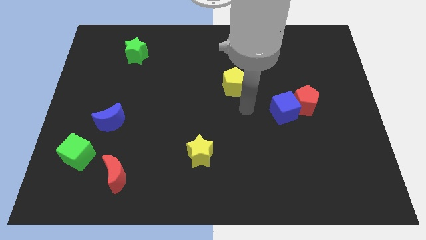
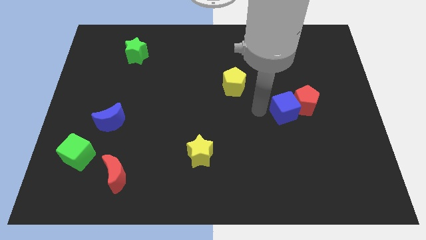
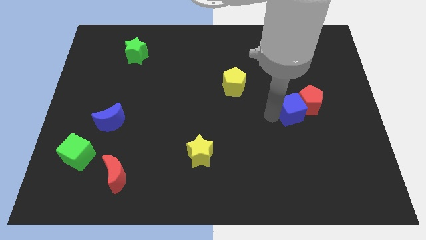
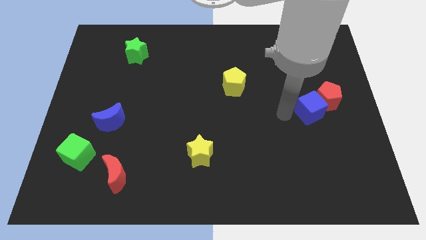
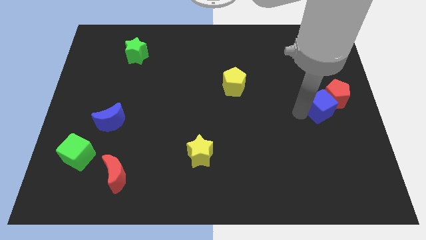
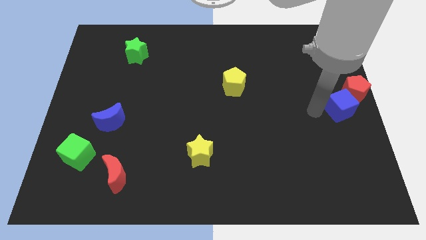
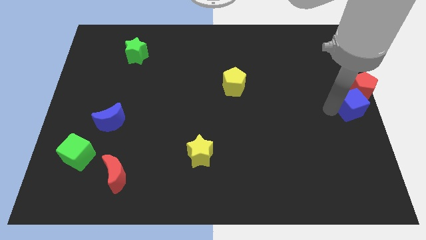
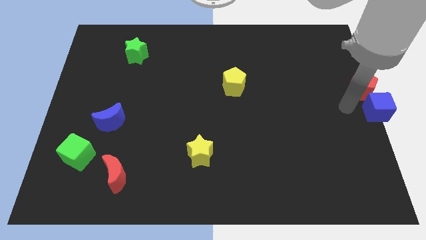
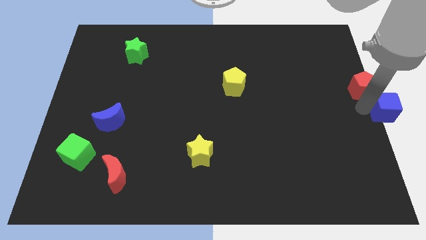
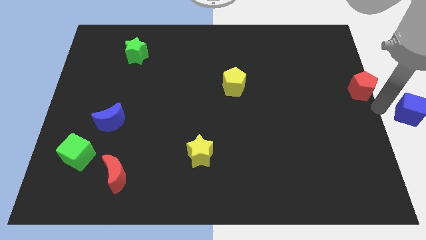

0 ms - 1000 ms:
separate the red pentagon from the blue cube

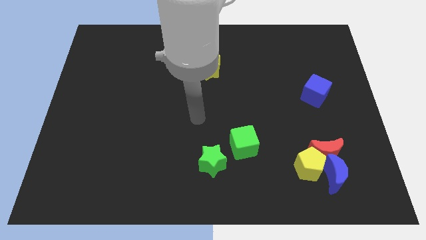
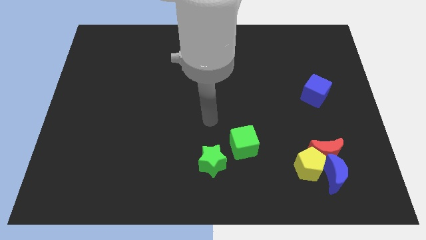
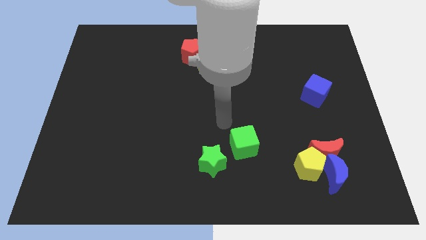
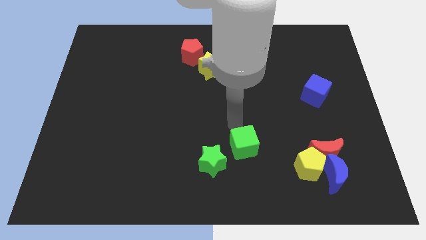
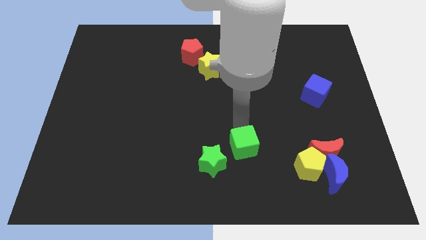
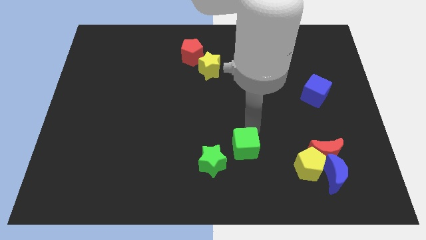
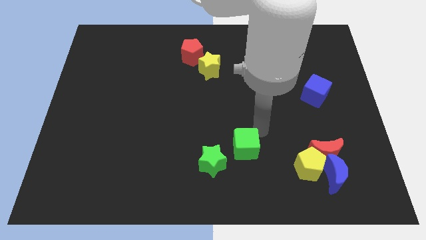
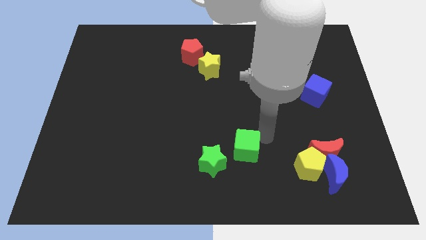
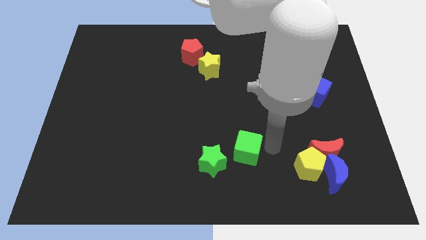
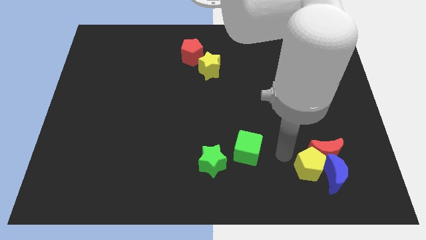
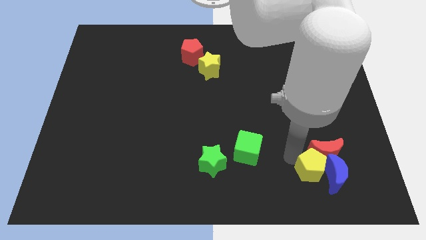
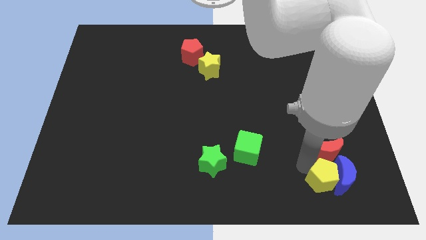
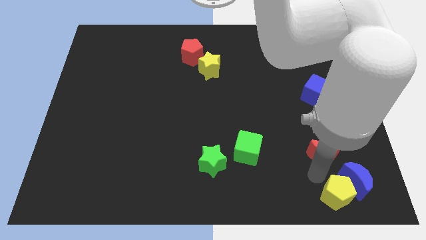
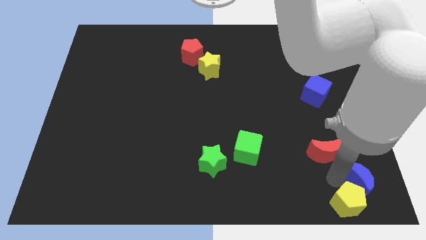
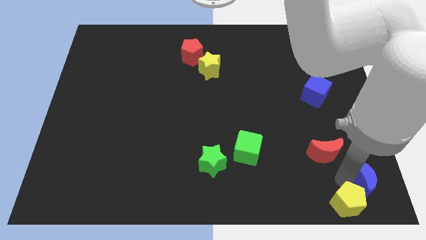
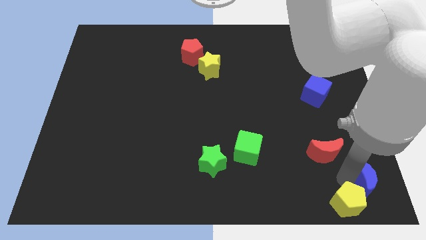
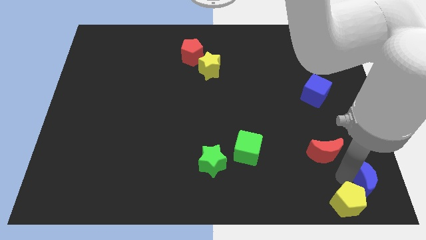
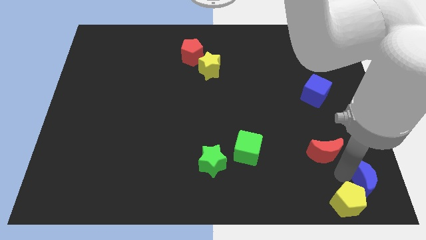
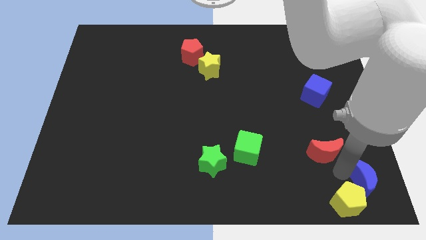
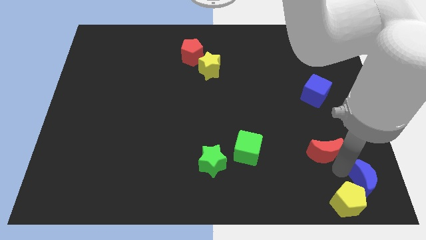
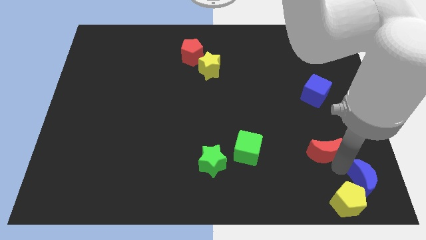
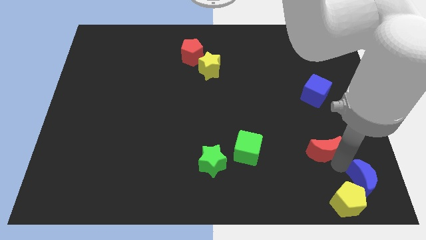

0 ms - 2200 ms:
separate the red moon from the yellow pentagon and blue moon

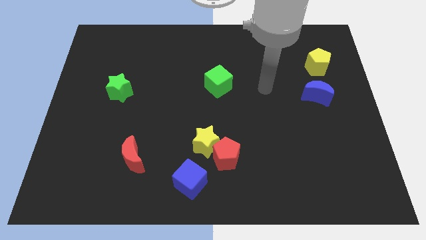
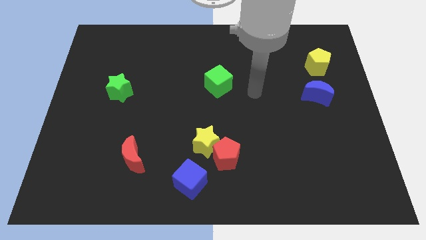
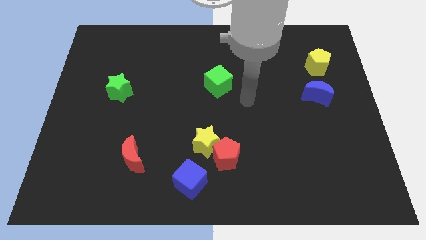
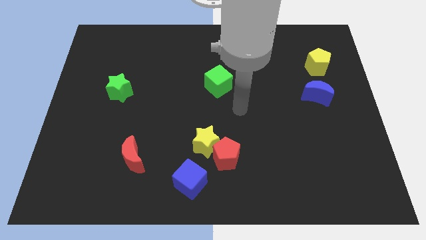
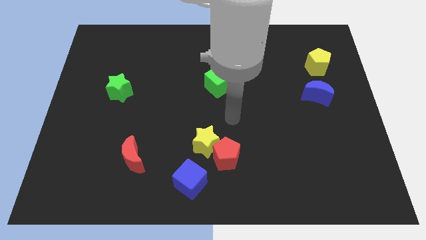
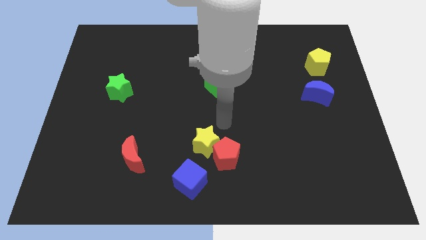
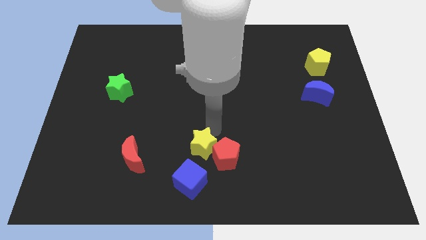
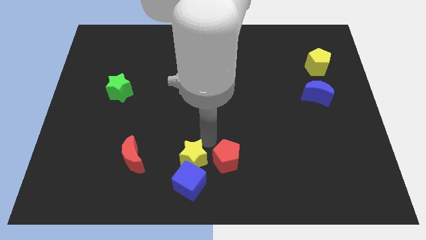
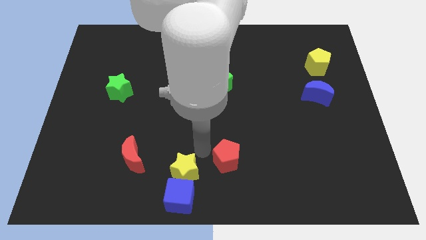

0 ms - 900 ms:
move the red pentagon away from the yellow star and blue cube

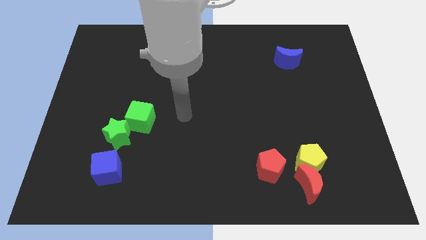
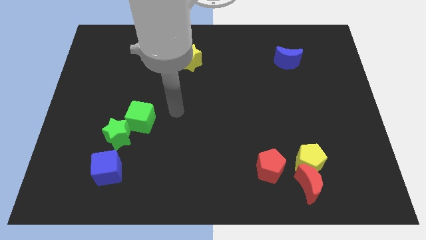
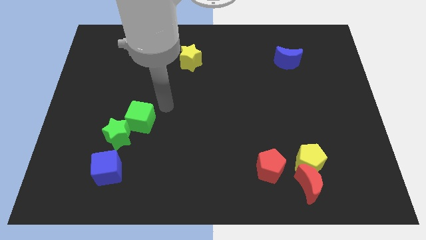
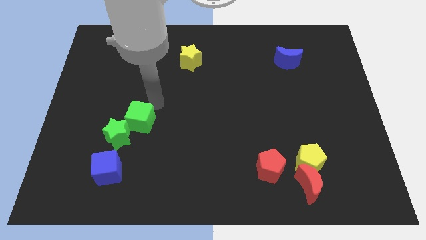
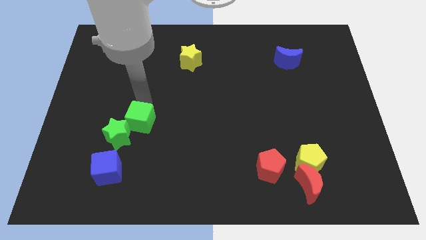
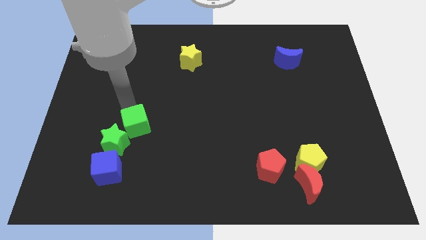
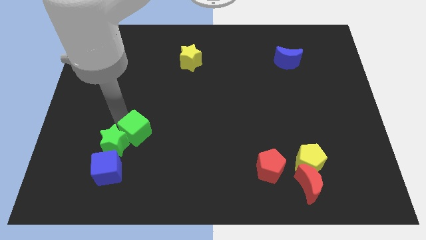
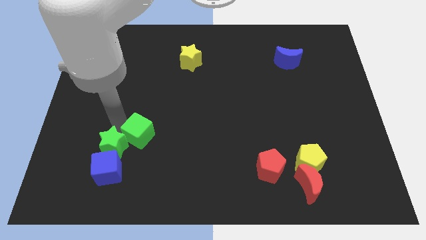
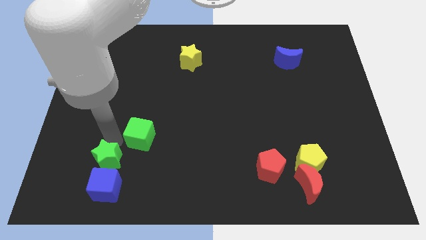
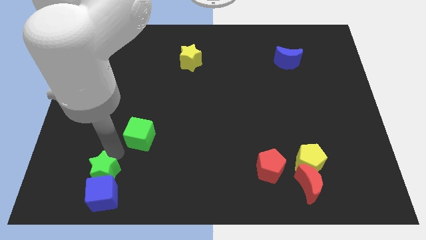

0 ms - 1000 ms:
pull the green cube apart from the green star

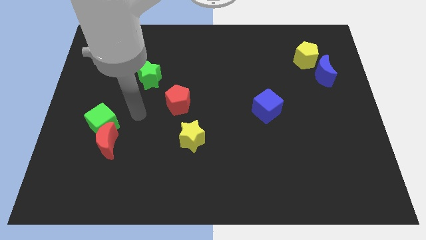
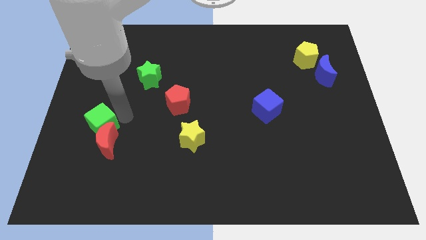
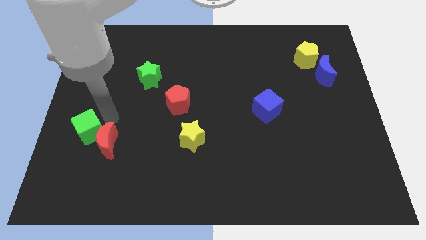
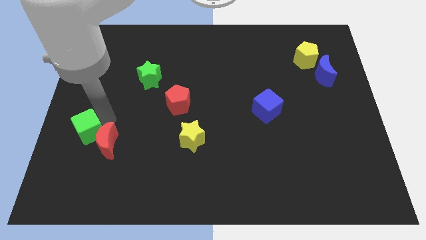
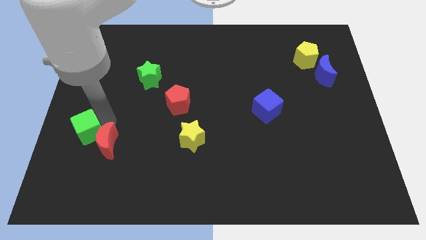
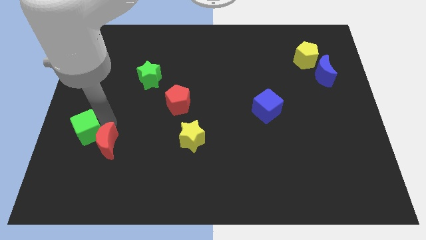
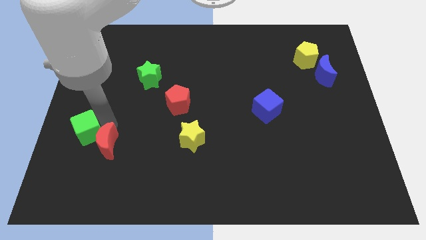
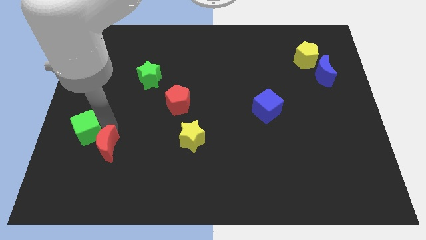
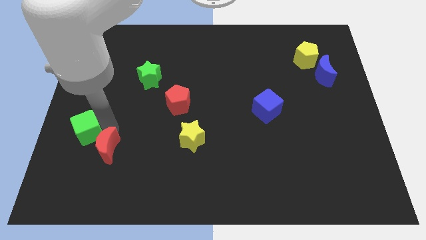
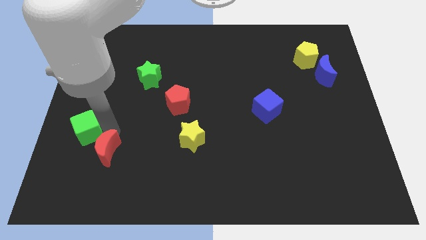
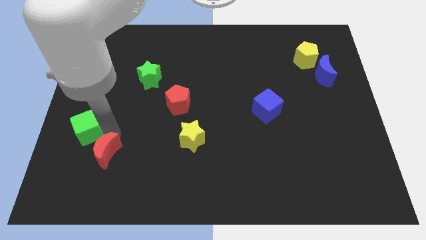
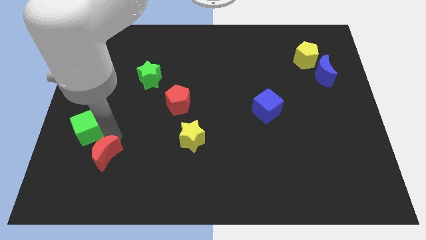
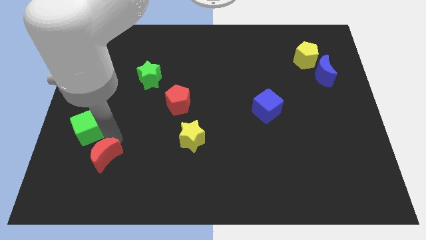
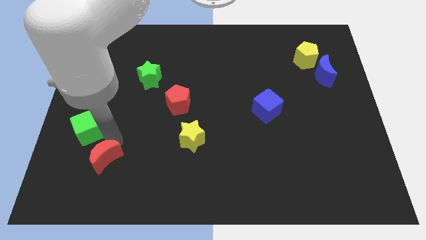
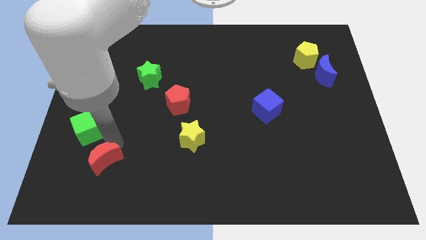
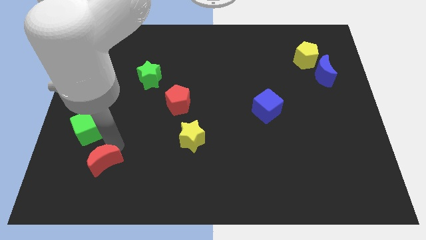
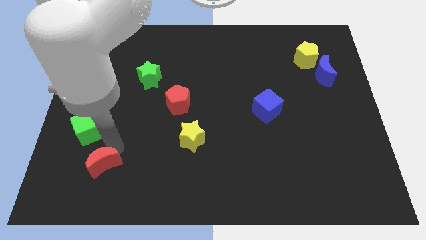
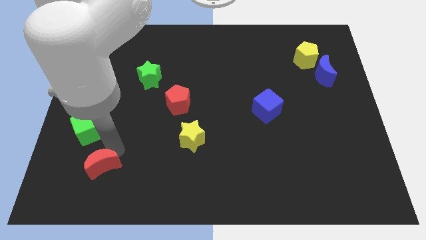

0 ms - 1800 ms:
pull the red moon apart from the green cube

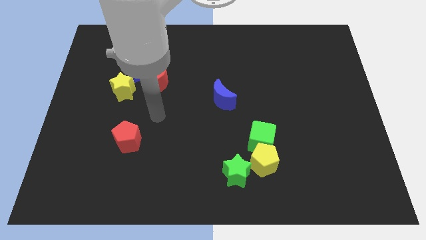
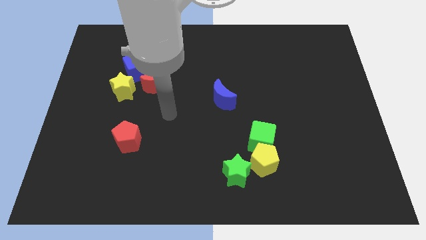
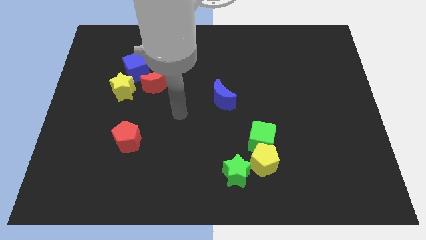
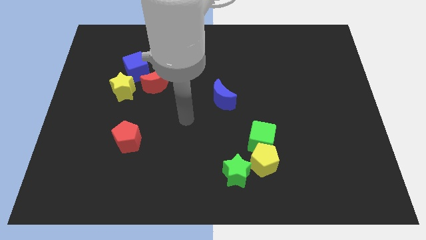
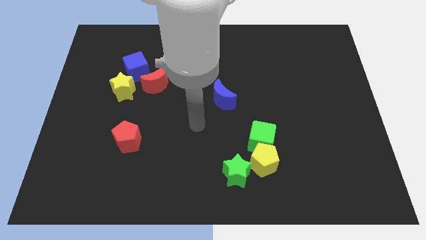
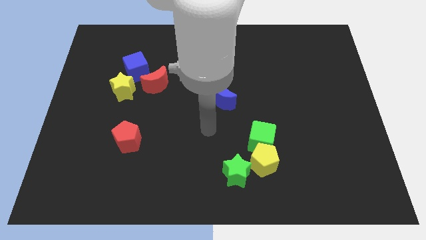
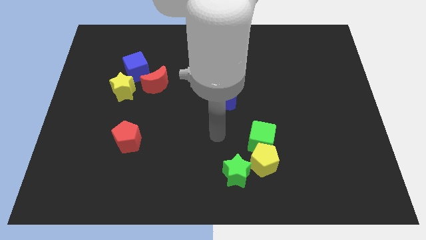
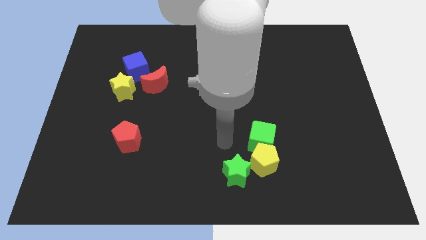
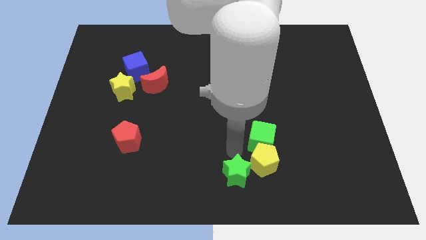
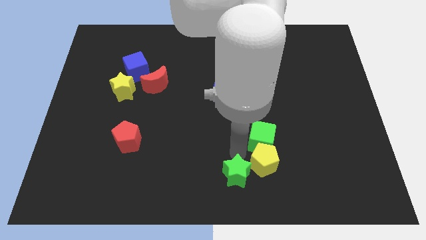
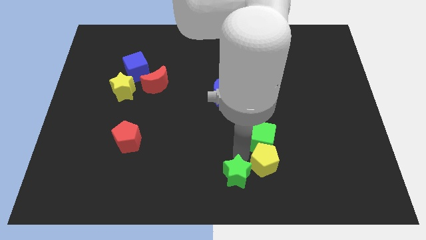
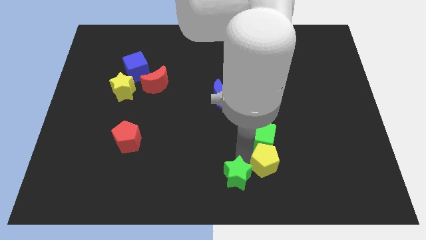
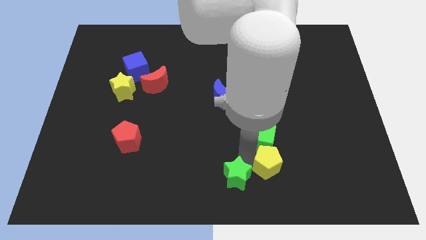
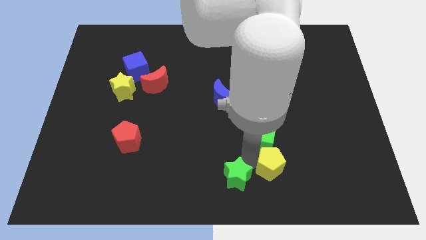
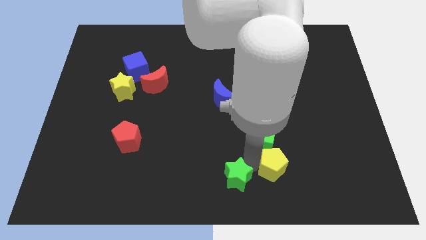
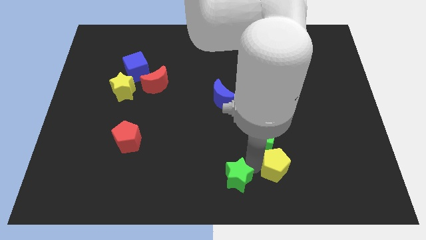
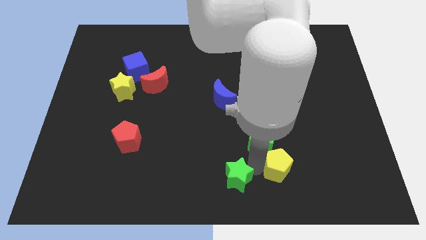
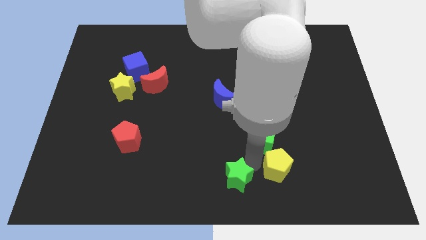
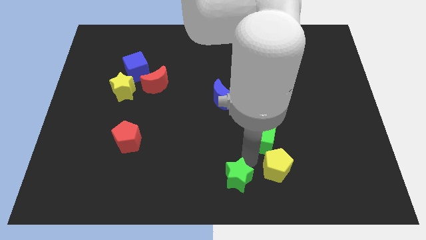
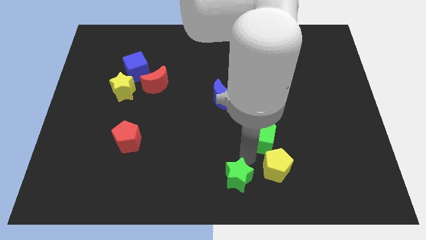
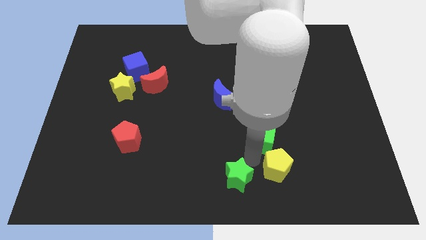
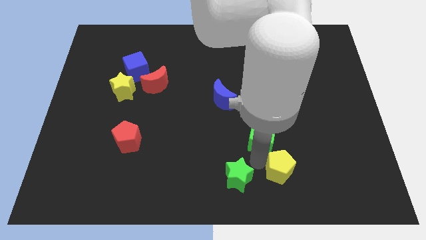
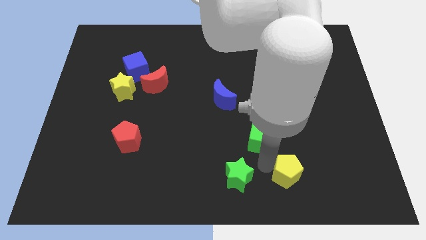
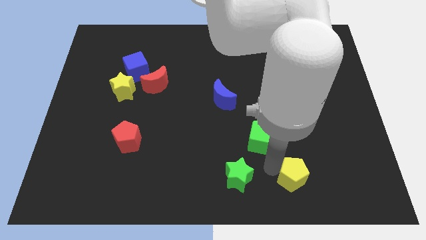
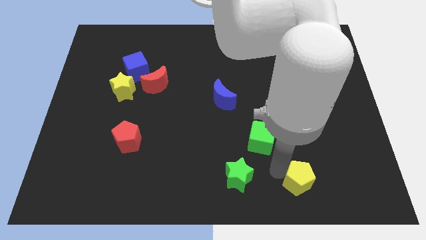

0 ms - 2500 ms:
move the yellow pentagon away from the green cube and green star

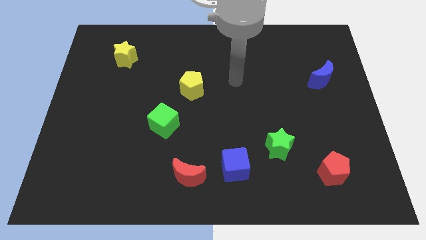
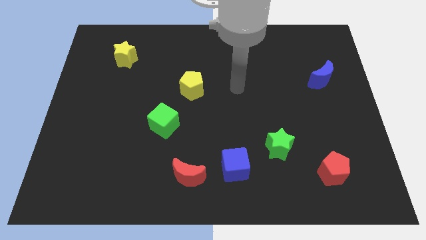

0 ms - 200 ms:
move the red moon away from the blue cube
